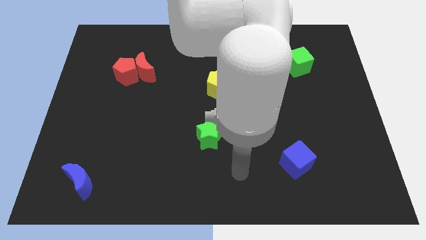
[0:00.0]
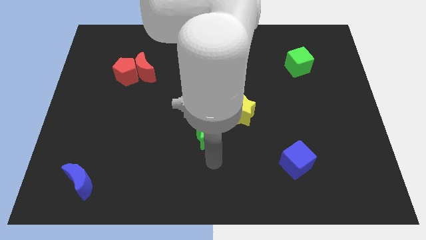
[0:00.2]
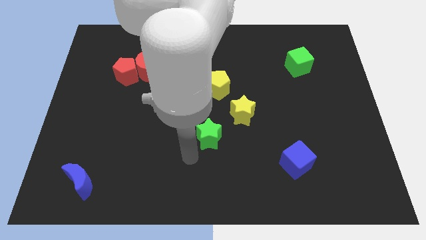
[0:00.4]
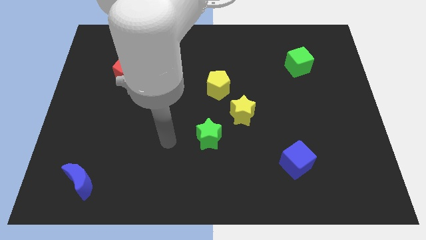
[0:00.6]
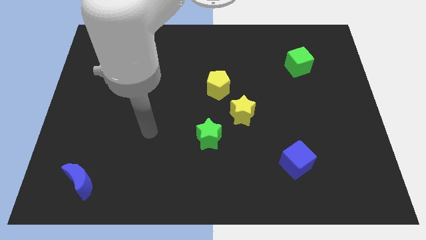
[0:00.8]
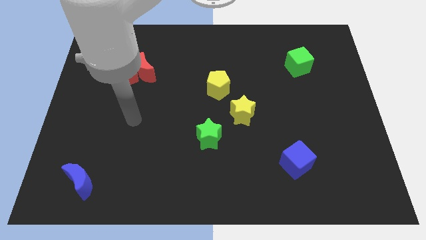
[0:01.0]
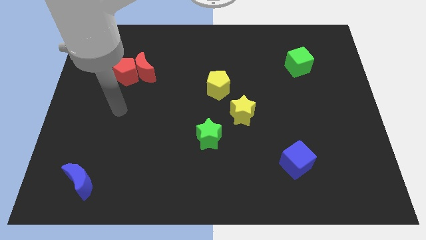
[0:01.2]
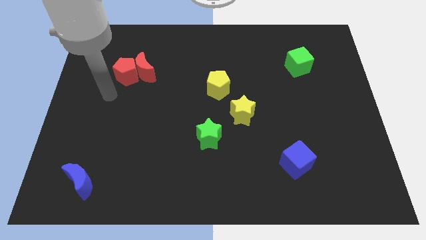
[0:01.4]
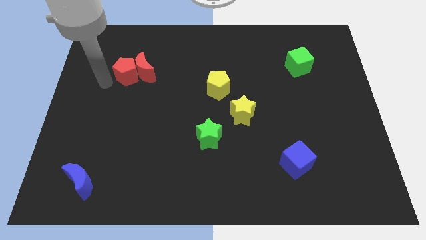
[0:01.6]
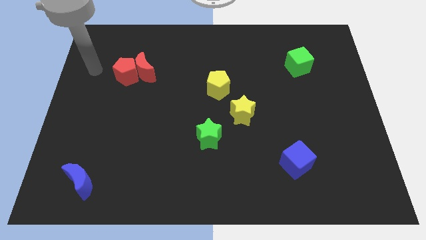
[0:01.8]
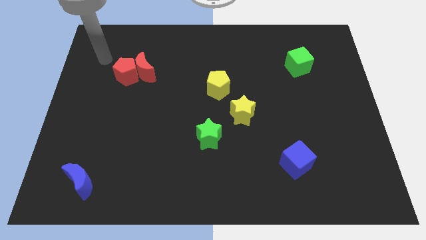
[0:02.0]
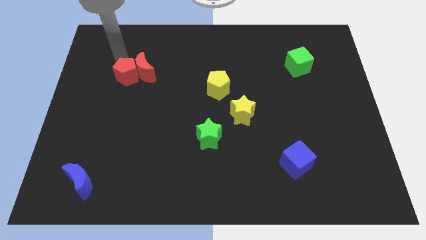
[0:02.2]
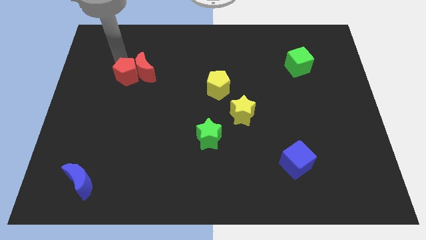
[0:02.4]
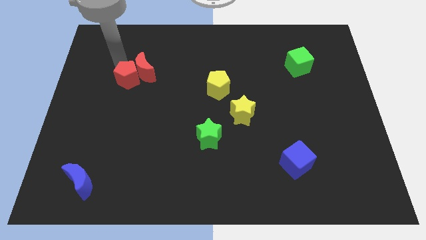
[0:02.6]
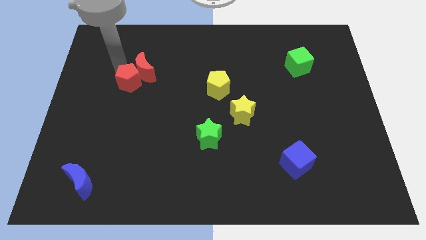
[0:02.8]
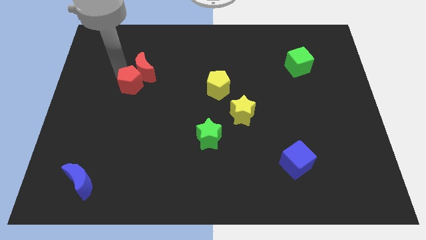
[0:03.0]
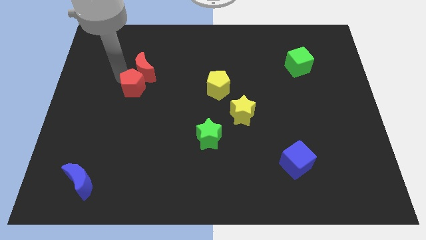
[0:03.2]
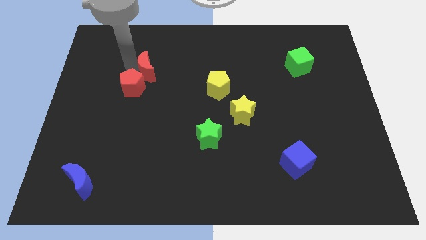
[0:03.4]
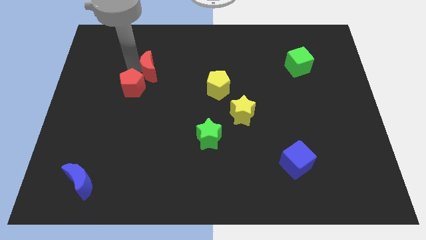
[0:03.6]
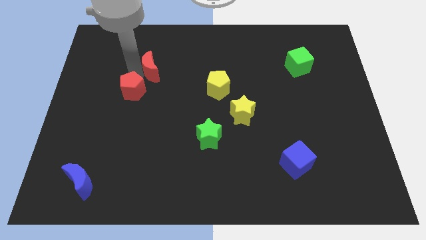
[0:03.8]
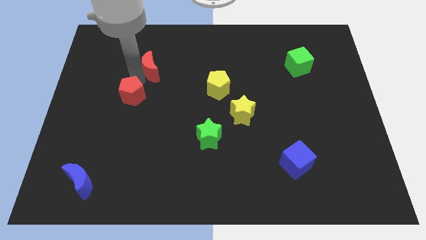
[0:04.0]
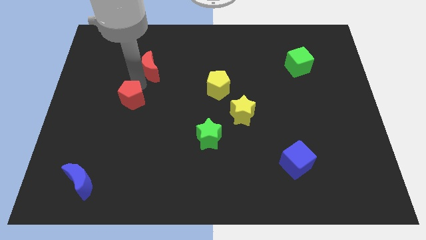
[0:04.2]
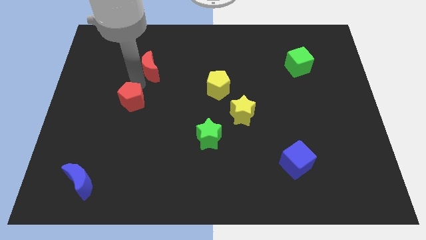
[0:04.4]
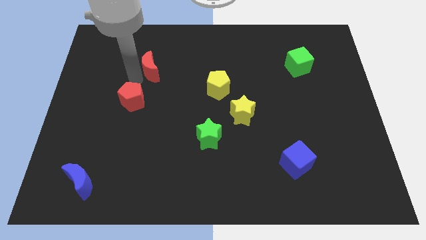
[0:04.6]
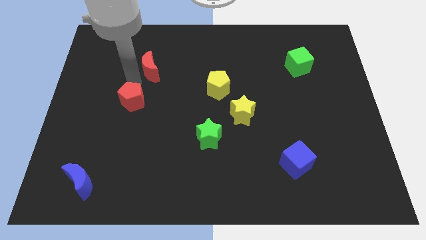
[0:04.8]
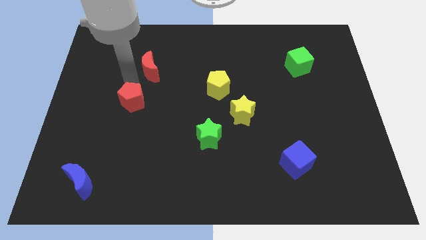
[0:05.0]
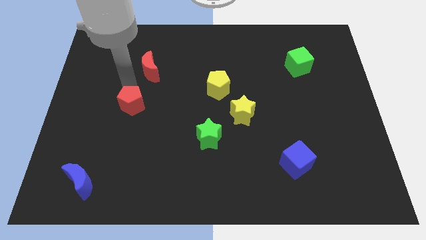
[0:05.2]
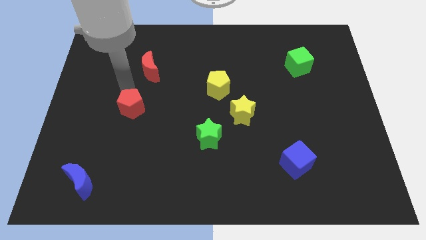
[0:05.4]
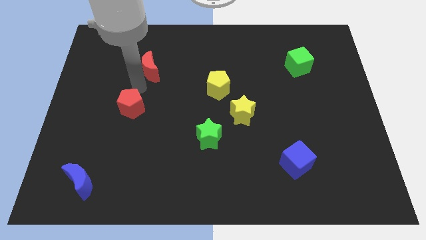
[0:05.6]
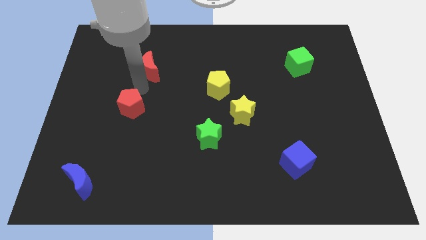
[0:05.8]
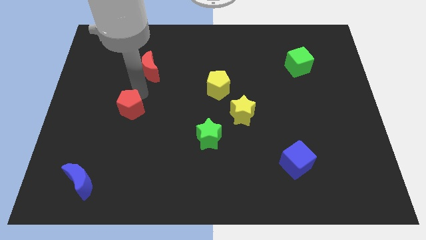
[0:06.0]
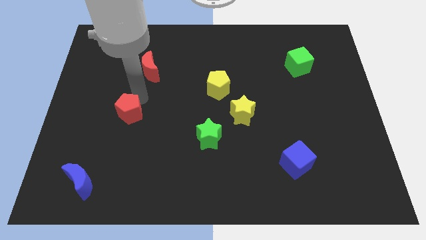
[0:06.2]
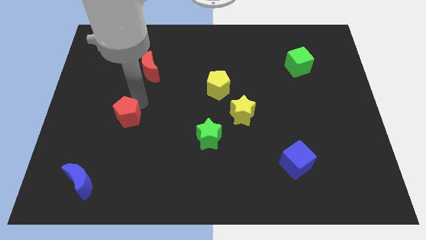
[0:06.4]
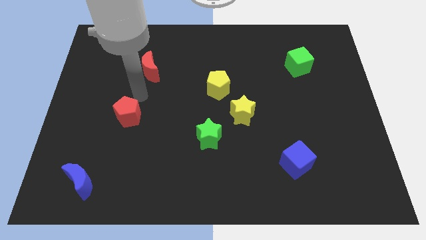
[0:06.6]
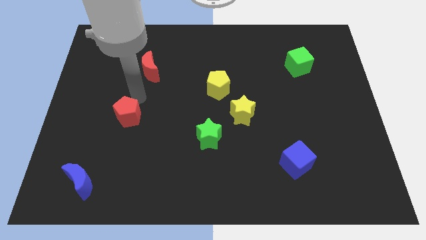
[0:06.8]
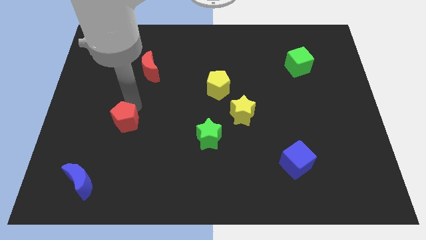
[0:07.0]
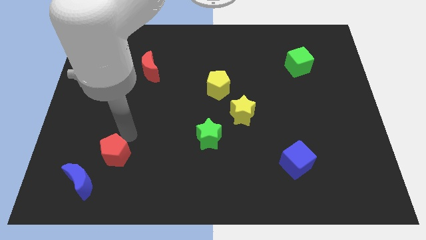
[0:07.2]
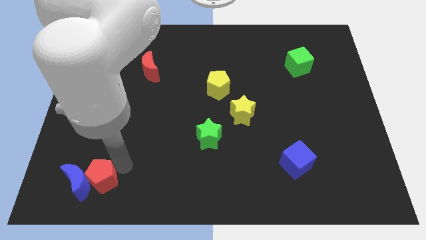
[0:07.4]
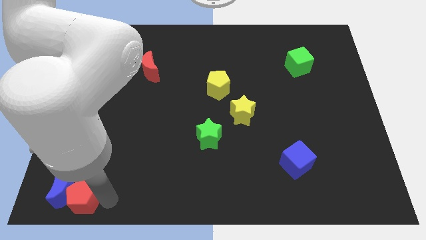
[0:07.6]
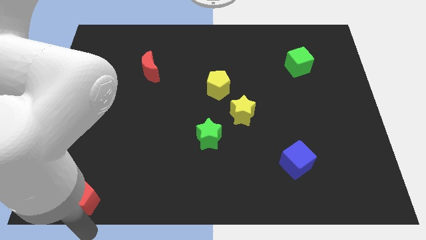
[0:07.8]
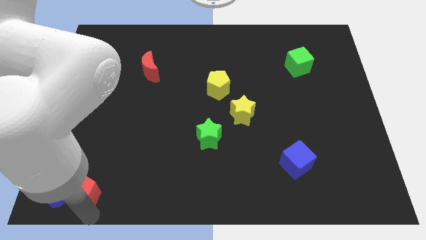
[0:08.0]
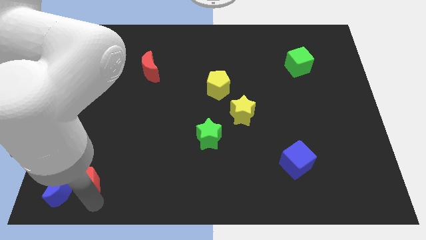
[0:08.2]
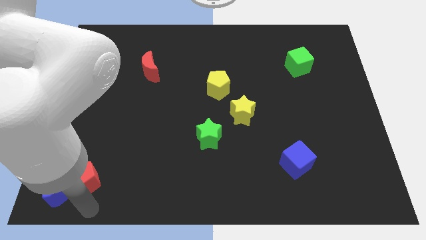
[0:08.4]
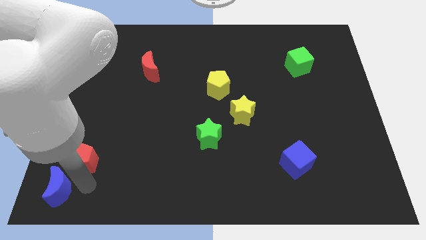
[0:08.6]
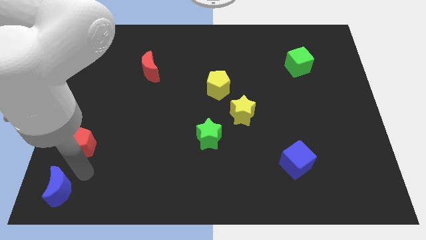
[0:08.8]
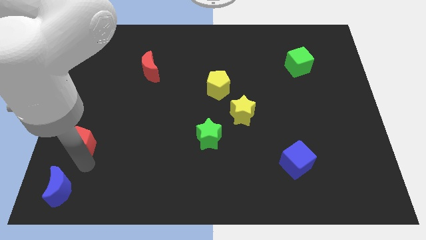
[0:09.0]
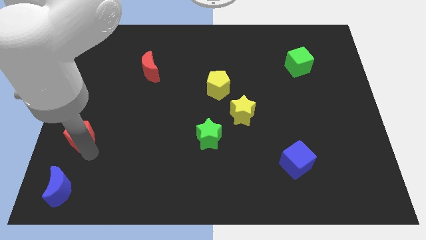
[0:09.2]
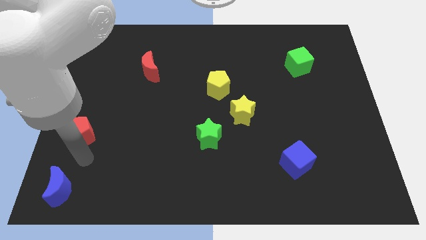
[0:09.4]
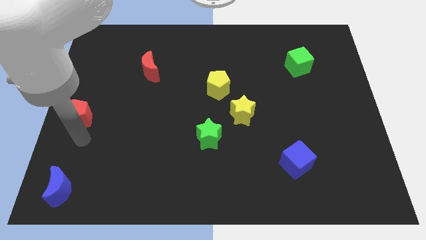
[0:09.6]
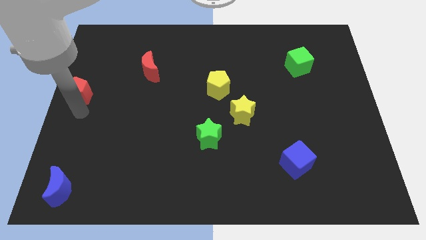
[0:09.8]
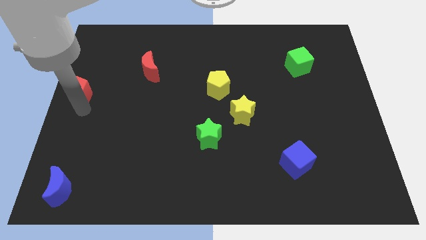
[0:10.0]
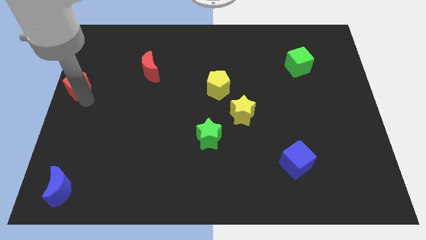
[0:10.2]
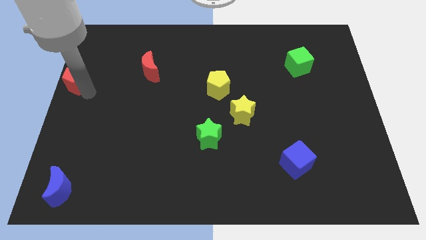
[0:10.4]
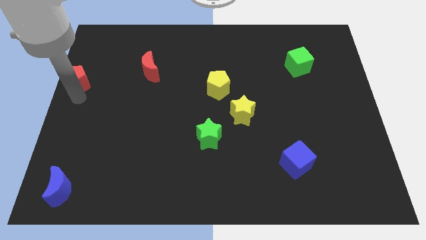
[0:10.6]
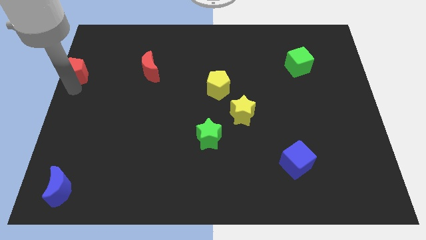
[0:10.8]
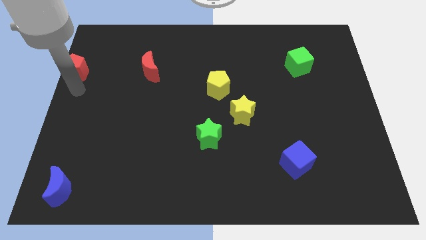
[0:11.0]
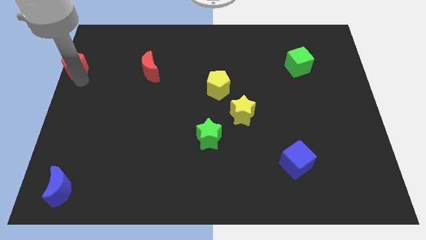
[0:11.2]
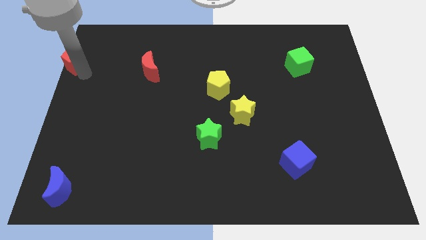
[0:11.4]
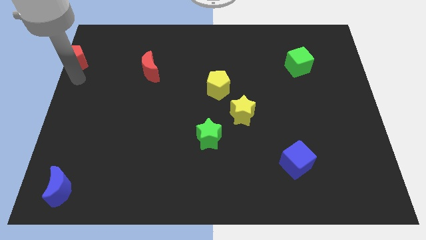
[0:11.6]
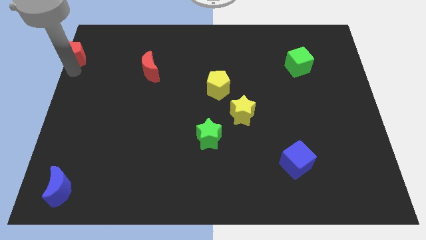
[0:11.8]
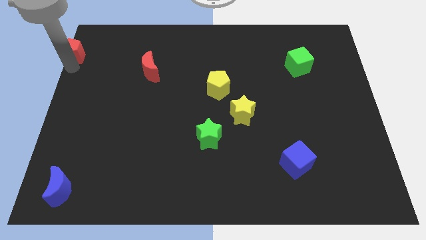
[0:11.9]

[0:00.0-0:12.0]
put the red pentagon to the top left of the board

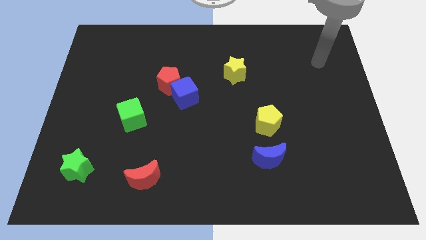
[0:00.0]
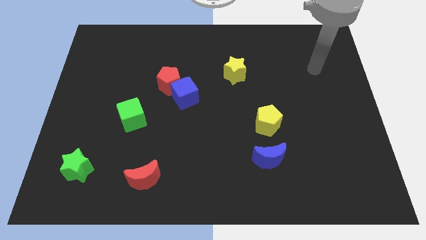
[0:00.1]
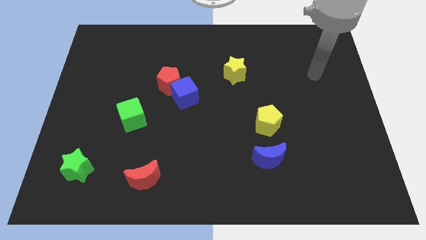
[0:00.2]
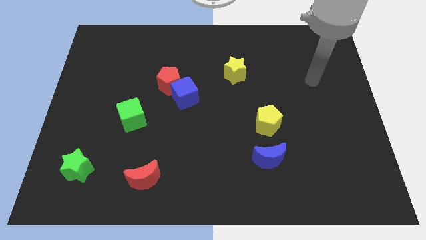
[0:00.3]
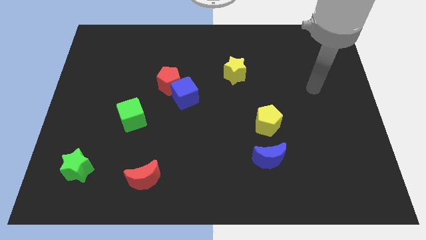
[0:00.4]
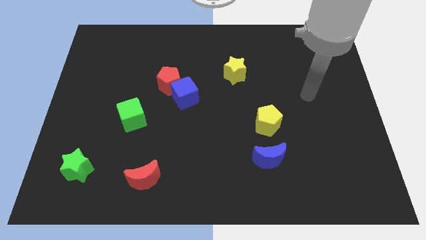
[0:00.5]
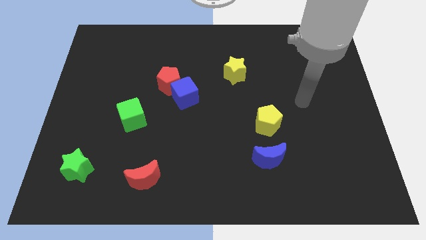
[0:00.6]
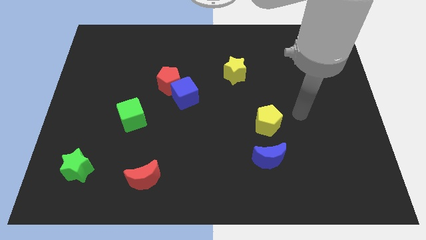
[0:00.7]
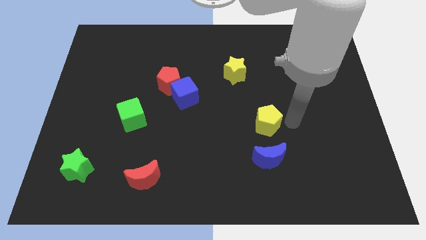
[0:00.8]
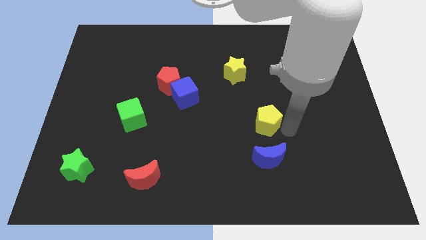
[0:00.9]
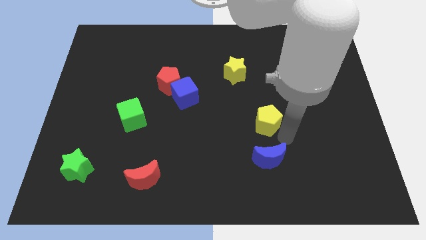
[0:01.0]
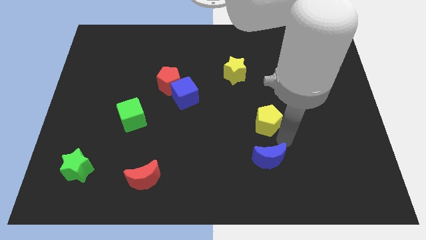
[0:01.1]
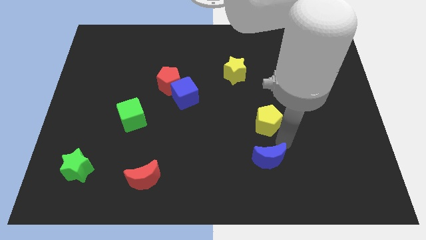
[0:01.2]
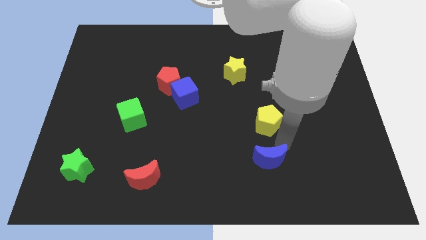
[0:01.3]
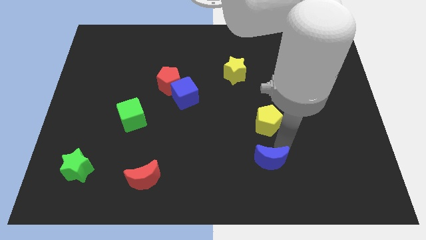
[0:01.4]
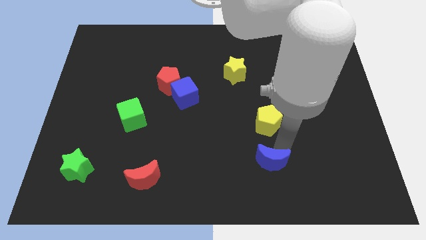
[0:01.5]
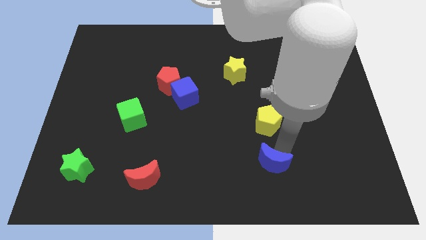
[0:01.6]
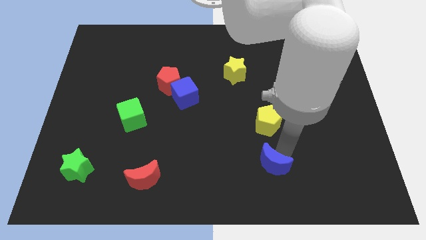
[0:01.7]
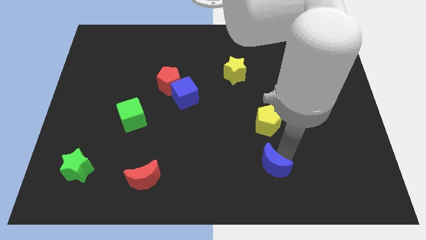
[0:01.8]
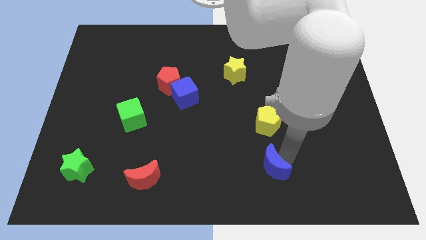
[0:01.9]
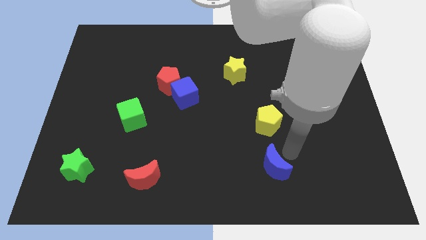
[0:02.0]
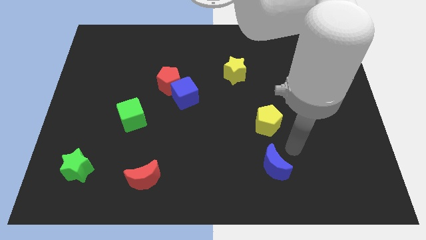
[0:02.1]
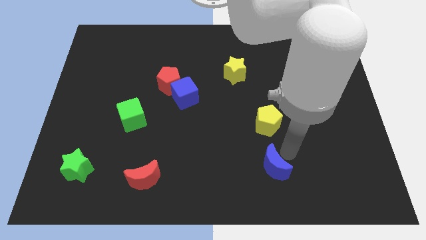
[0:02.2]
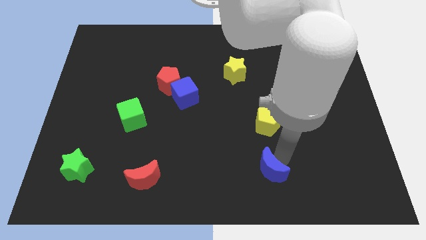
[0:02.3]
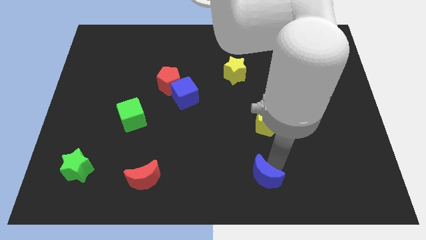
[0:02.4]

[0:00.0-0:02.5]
put the blue moon to the bottom side
